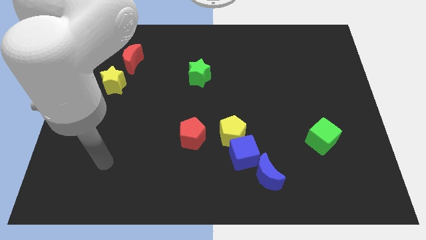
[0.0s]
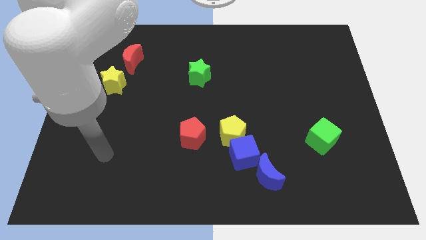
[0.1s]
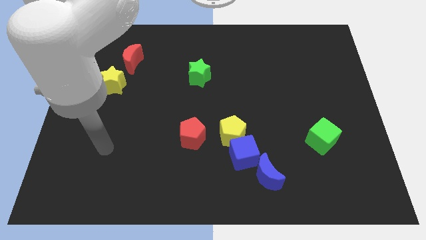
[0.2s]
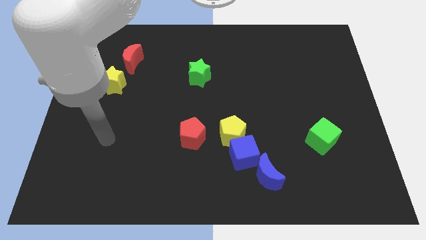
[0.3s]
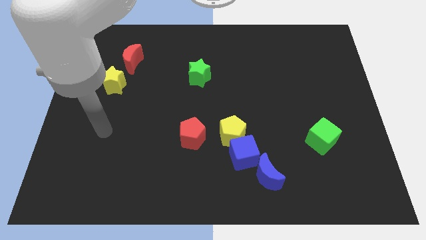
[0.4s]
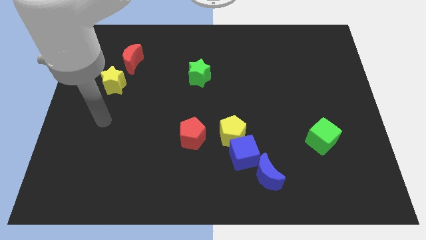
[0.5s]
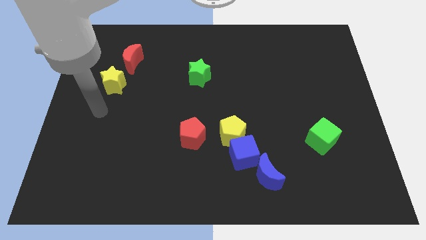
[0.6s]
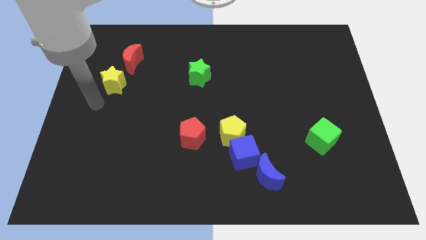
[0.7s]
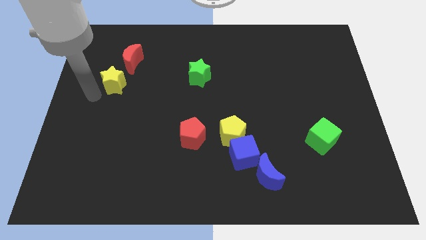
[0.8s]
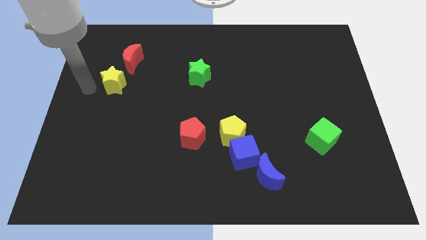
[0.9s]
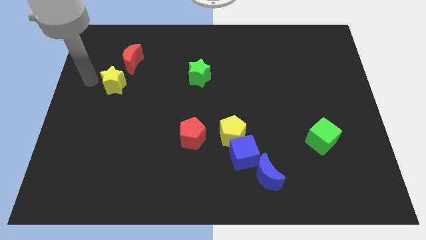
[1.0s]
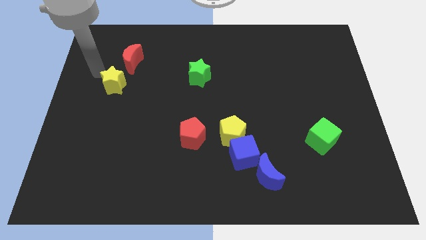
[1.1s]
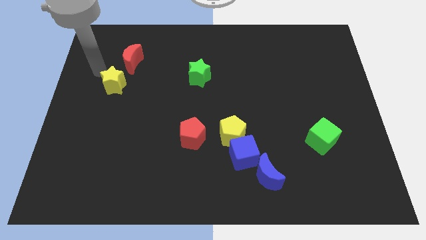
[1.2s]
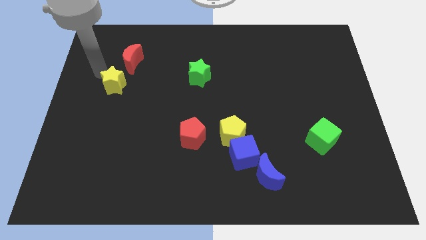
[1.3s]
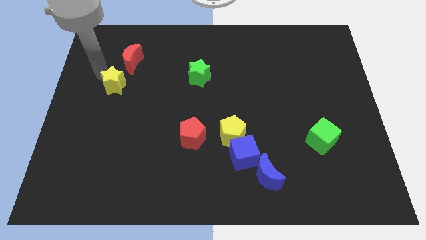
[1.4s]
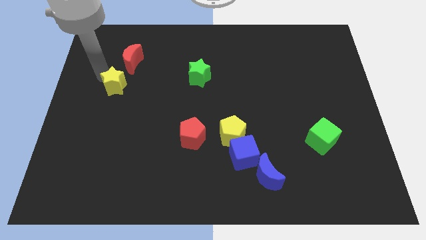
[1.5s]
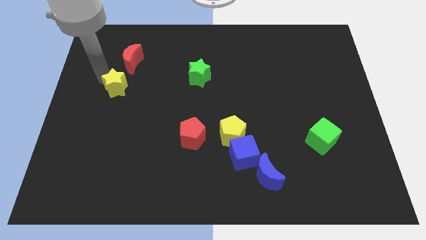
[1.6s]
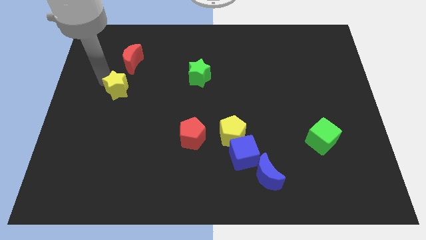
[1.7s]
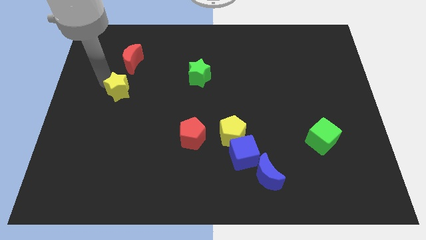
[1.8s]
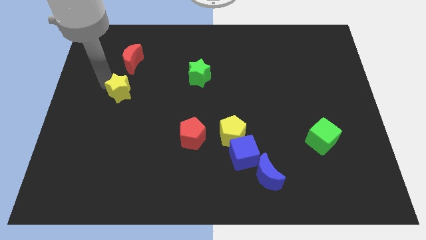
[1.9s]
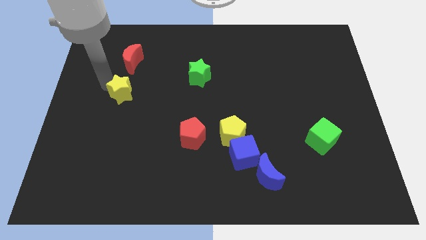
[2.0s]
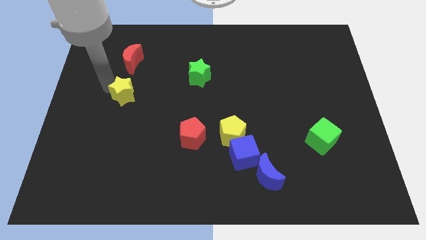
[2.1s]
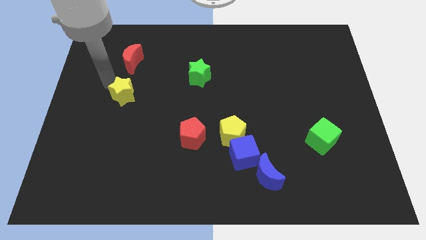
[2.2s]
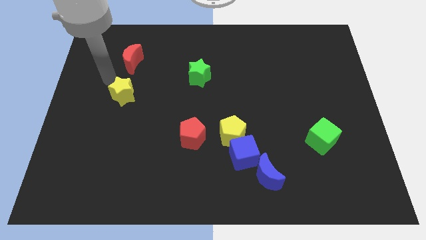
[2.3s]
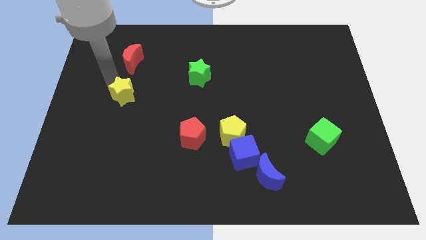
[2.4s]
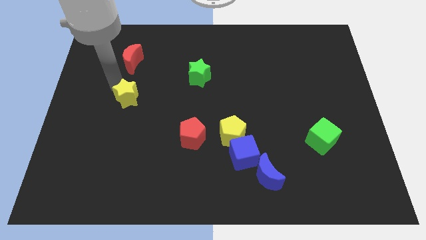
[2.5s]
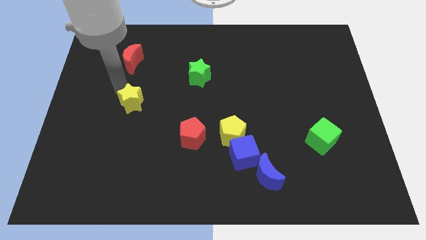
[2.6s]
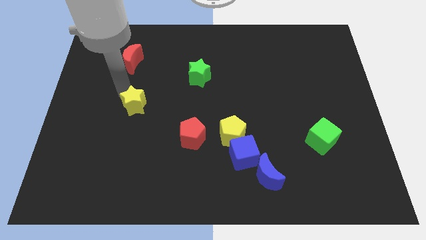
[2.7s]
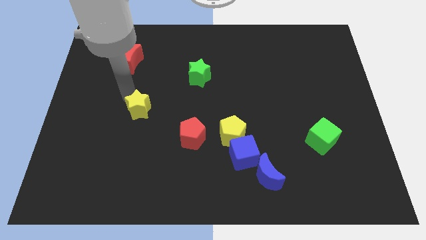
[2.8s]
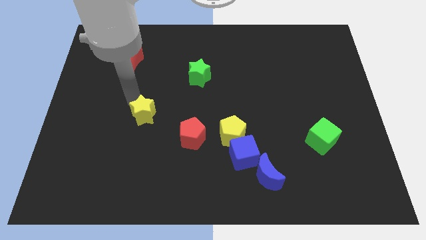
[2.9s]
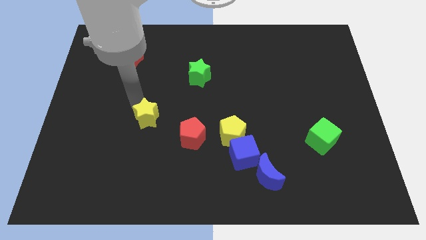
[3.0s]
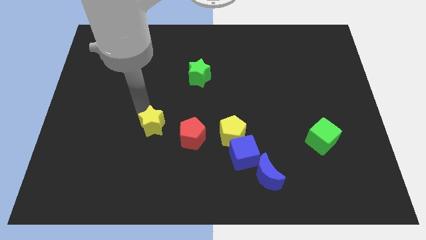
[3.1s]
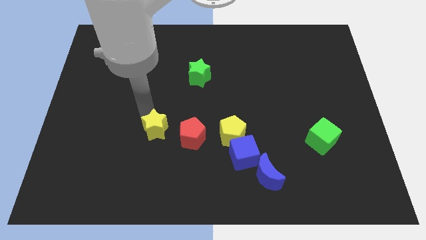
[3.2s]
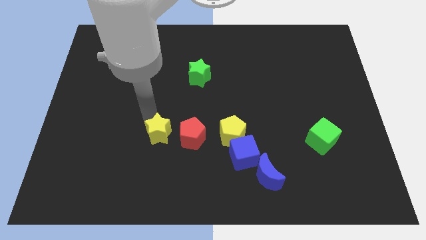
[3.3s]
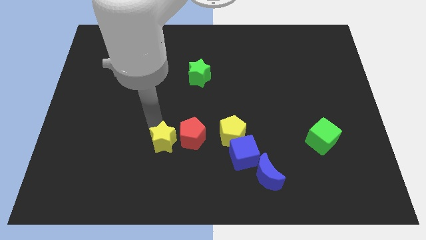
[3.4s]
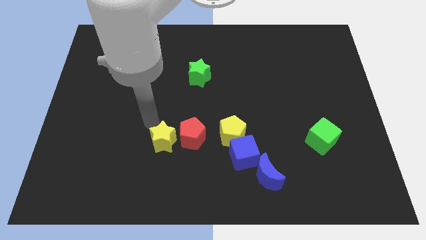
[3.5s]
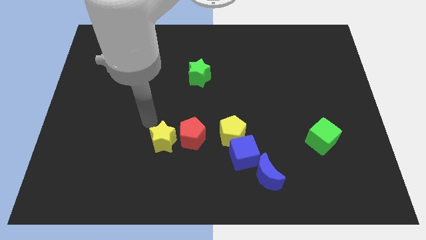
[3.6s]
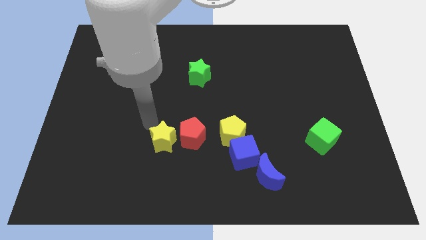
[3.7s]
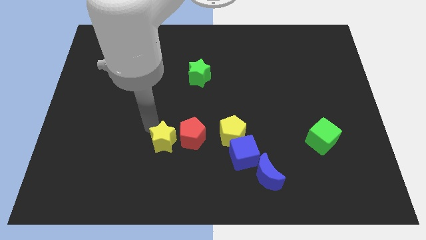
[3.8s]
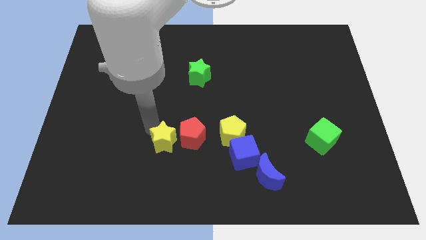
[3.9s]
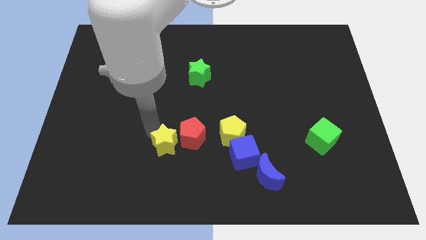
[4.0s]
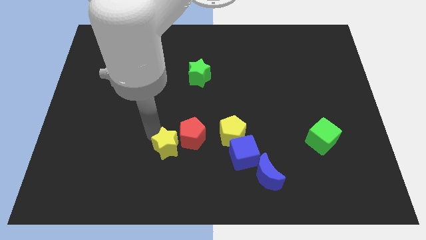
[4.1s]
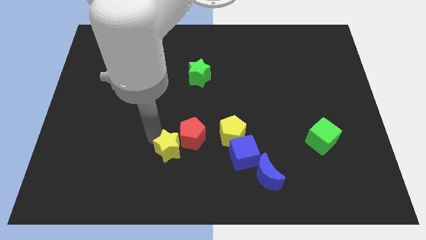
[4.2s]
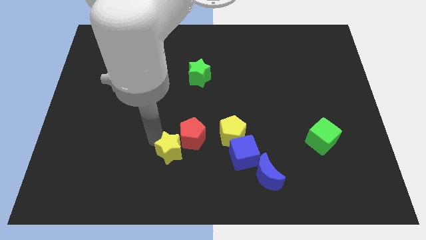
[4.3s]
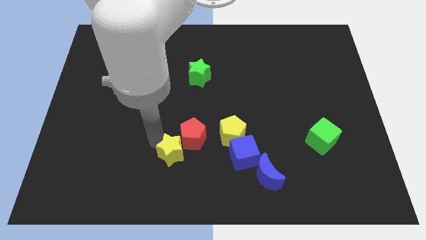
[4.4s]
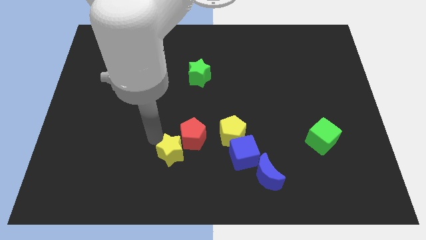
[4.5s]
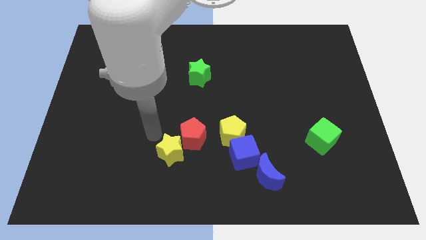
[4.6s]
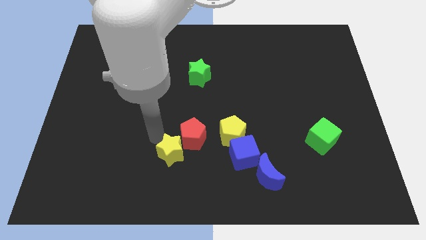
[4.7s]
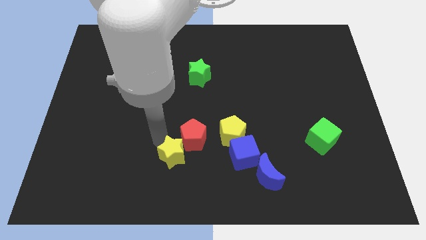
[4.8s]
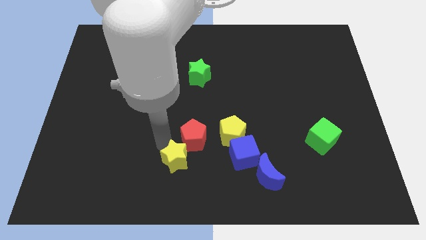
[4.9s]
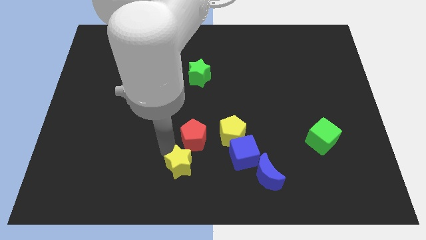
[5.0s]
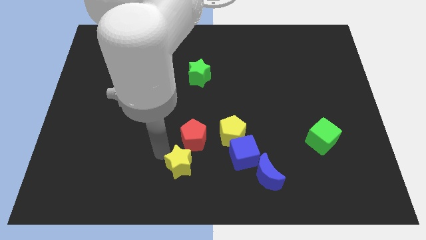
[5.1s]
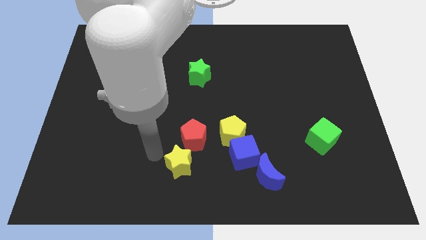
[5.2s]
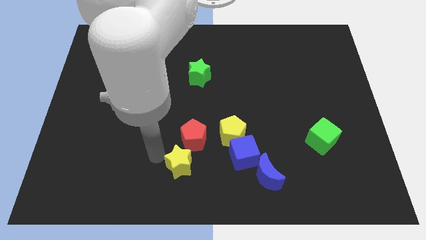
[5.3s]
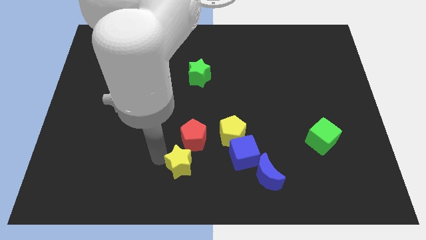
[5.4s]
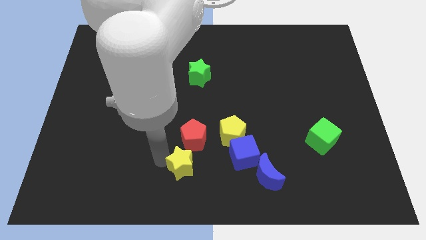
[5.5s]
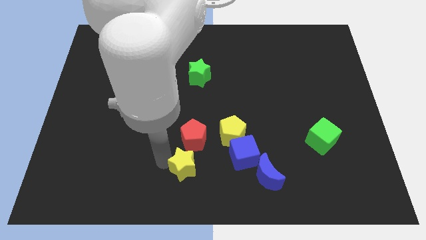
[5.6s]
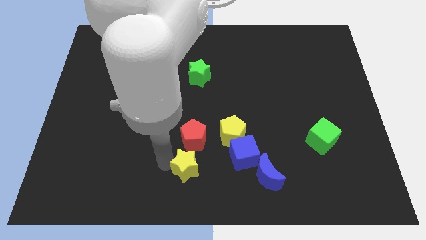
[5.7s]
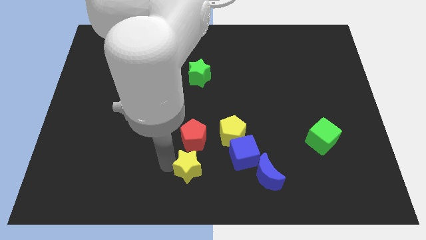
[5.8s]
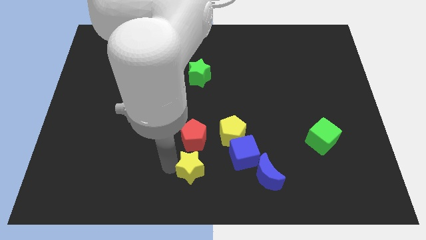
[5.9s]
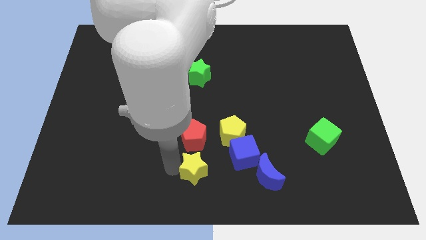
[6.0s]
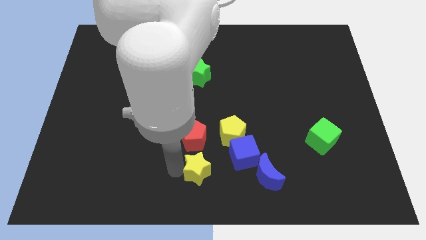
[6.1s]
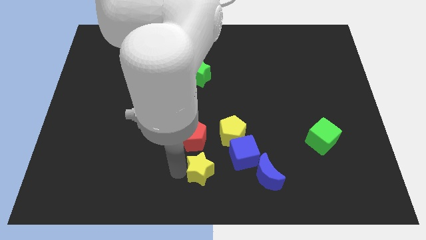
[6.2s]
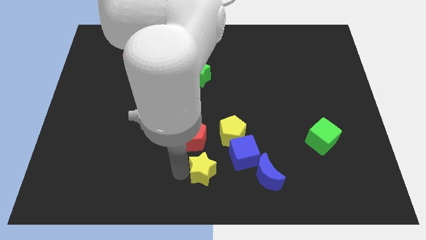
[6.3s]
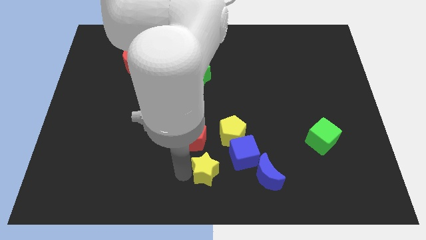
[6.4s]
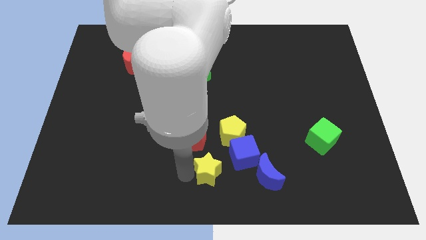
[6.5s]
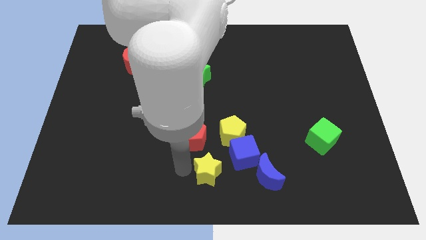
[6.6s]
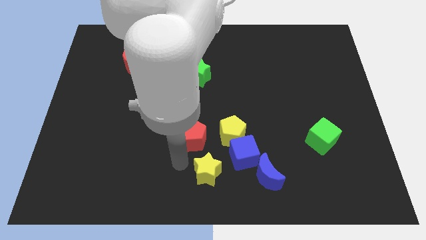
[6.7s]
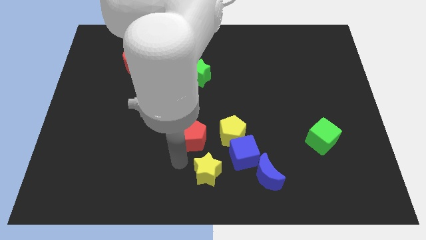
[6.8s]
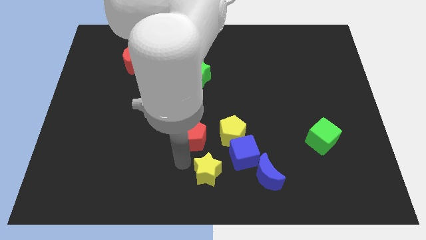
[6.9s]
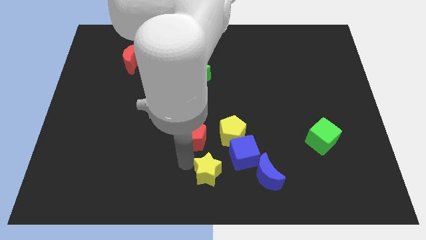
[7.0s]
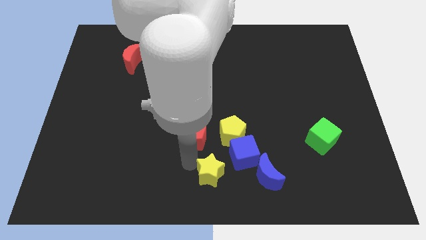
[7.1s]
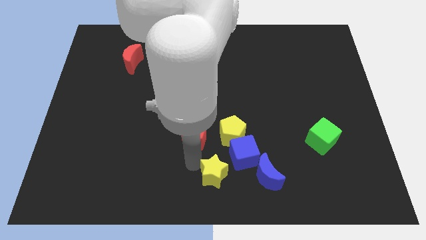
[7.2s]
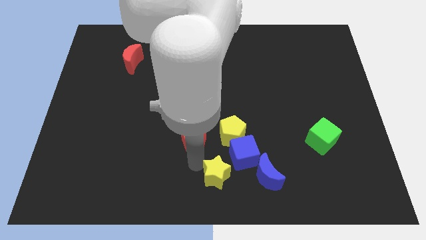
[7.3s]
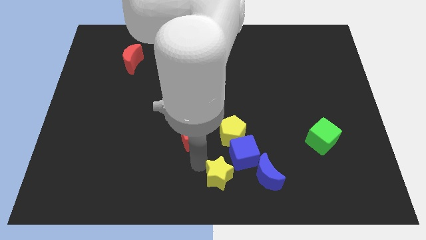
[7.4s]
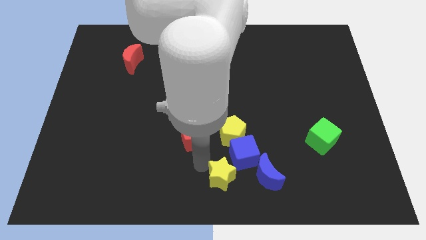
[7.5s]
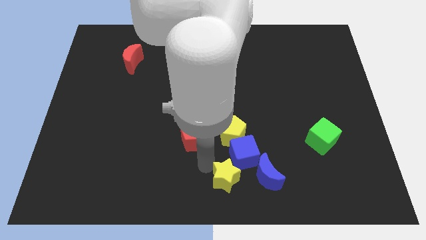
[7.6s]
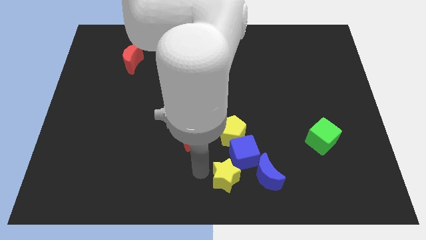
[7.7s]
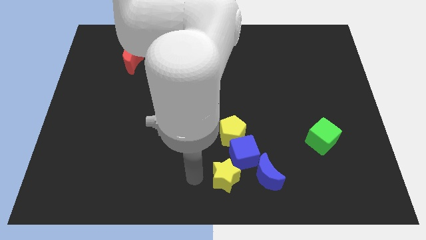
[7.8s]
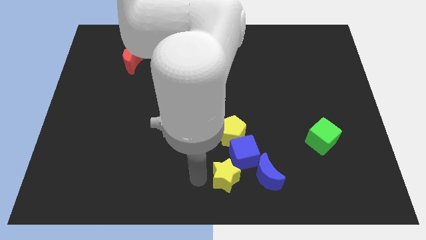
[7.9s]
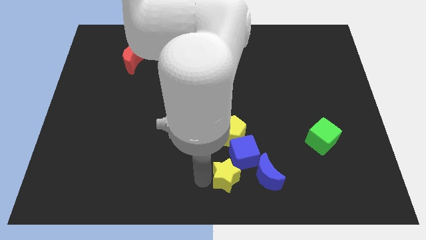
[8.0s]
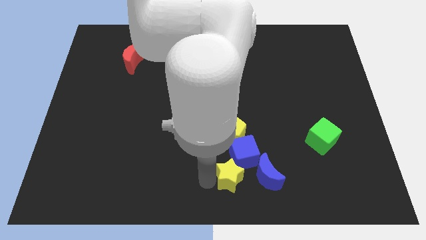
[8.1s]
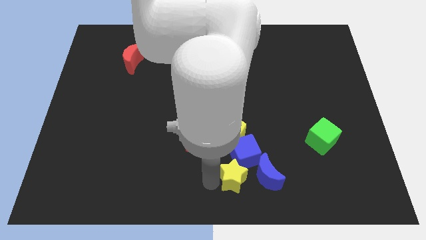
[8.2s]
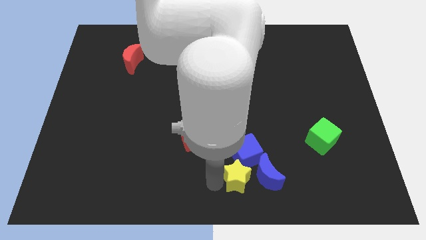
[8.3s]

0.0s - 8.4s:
slide the yellow star next to the blue moon
